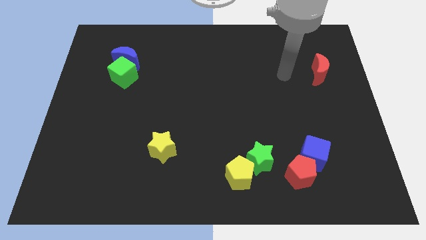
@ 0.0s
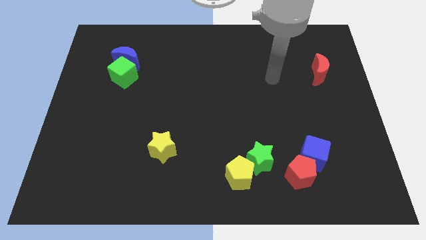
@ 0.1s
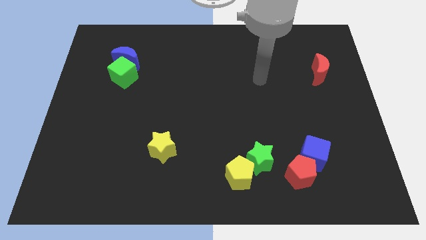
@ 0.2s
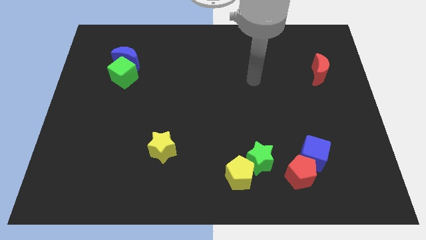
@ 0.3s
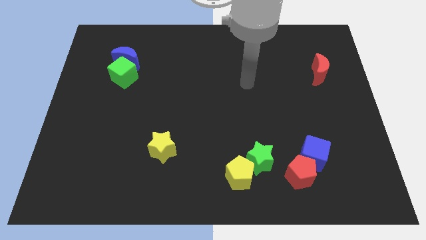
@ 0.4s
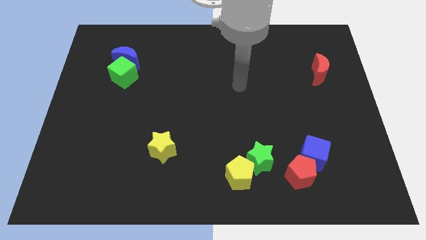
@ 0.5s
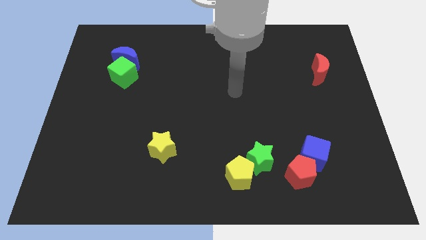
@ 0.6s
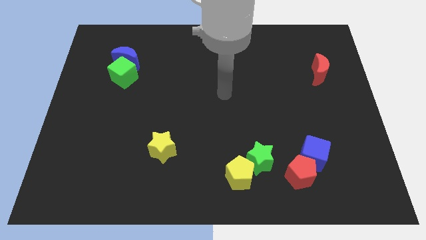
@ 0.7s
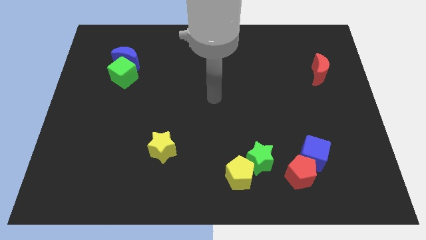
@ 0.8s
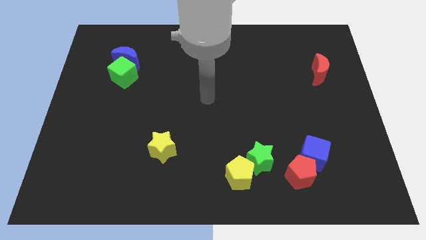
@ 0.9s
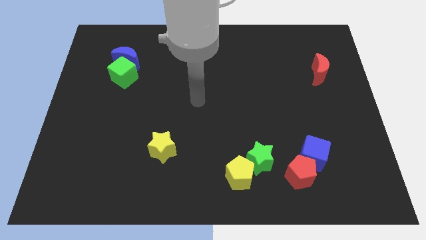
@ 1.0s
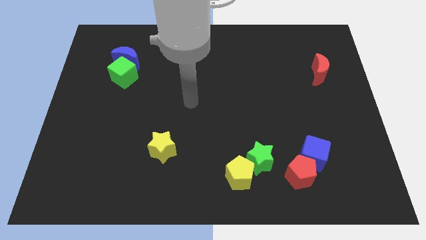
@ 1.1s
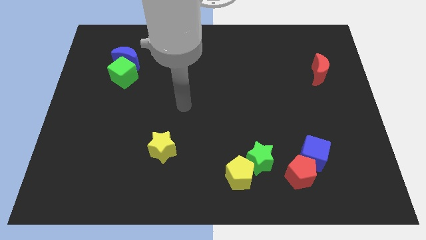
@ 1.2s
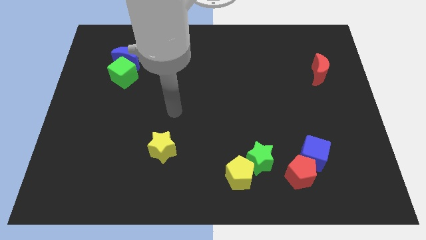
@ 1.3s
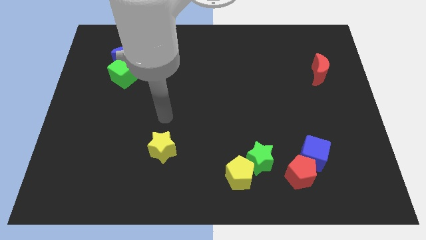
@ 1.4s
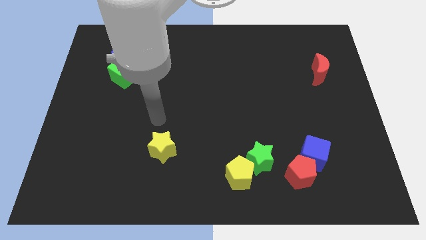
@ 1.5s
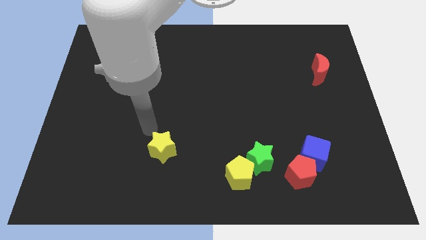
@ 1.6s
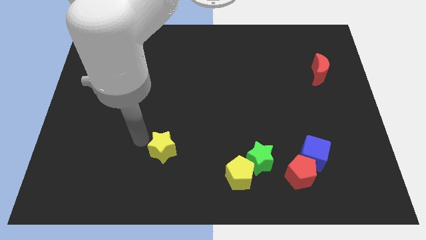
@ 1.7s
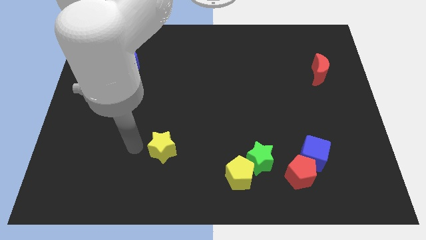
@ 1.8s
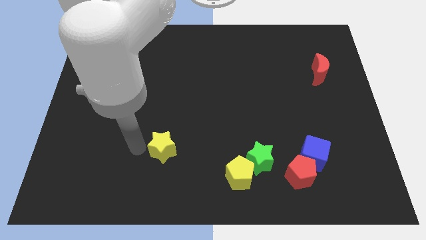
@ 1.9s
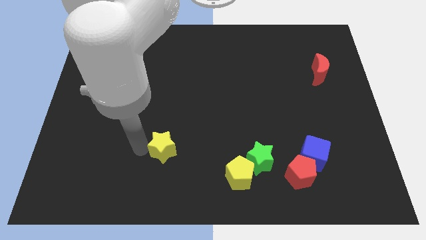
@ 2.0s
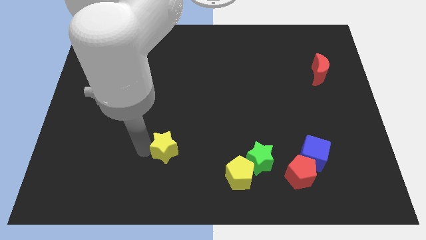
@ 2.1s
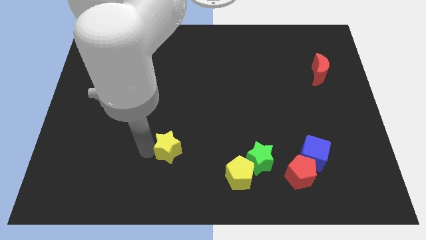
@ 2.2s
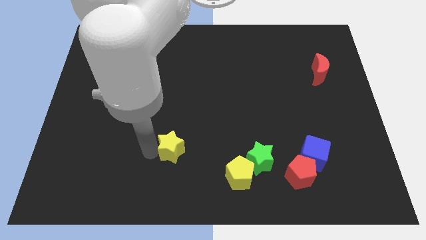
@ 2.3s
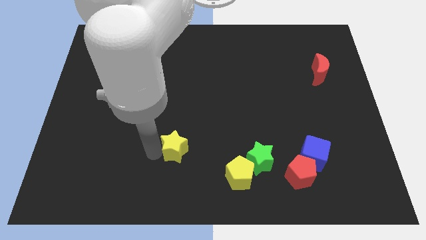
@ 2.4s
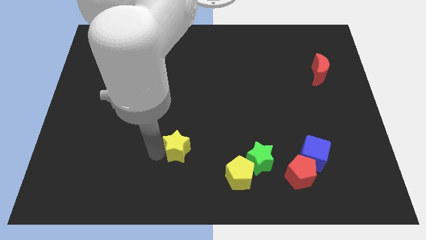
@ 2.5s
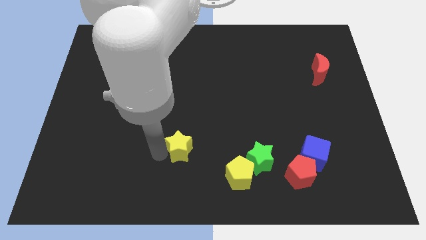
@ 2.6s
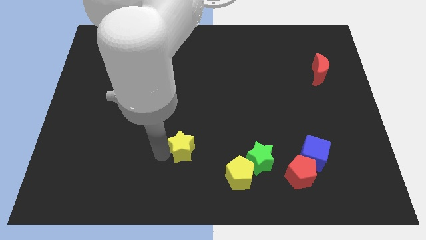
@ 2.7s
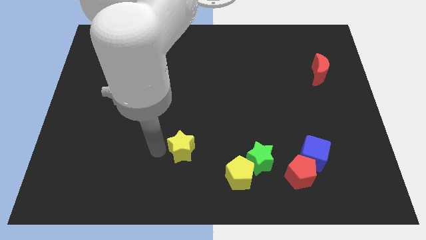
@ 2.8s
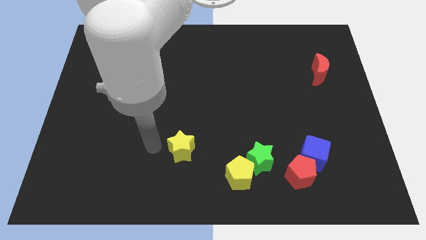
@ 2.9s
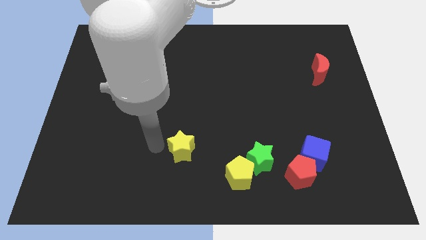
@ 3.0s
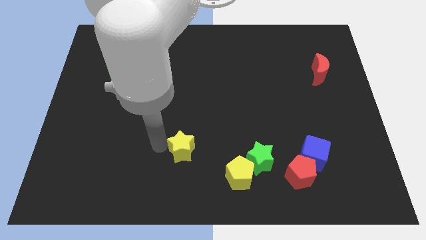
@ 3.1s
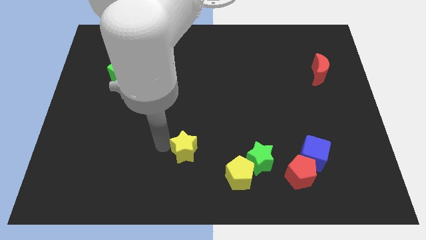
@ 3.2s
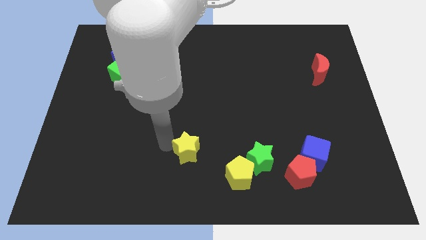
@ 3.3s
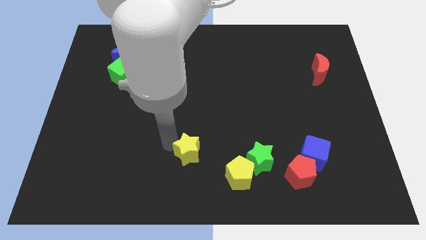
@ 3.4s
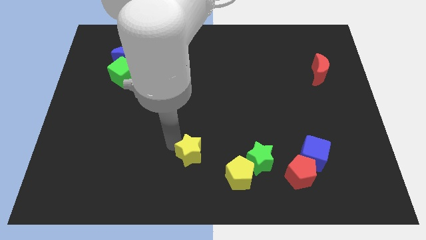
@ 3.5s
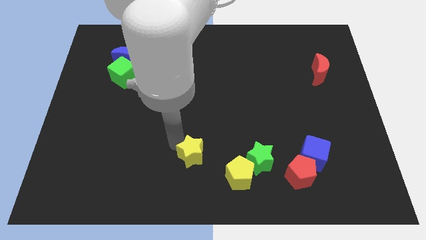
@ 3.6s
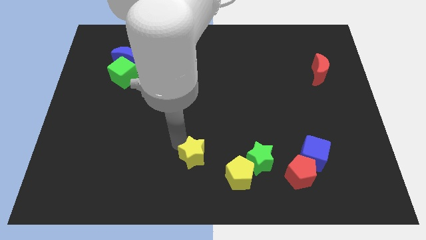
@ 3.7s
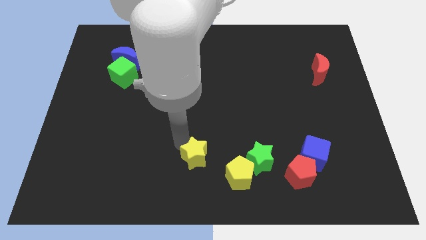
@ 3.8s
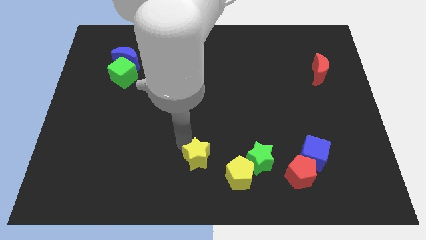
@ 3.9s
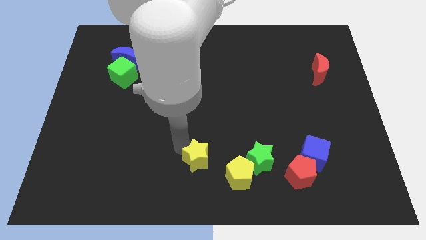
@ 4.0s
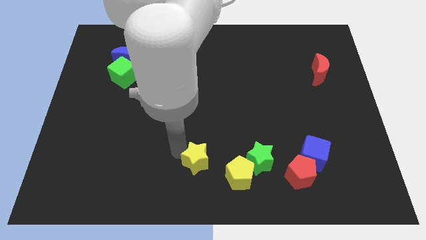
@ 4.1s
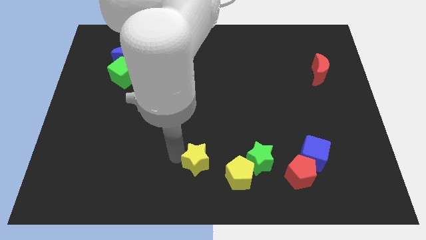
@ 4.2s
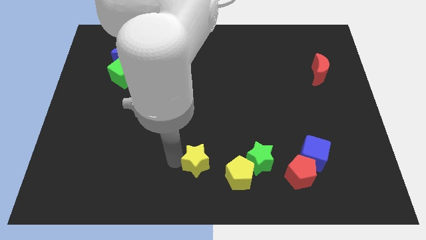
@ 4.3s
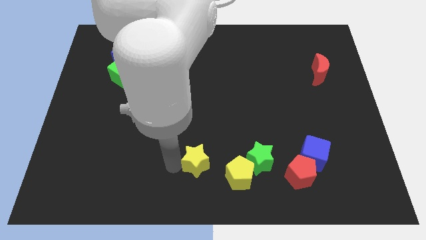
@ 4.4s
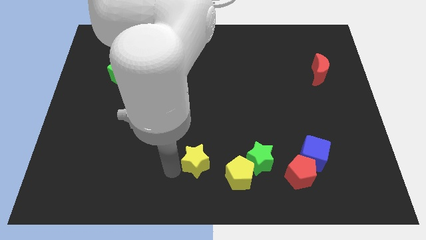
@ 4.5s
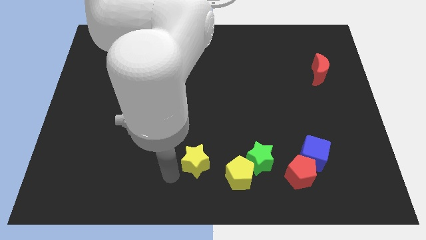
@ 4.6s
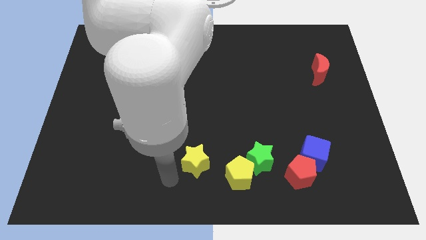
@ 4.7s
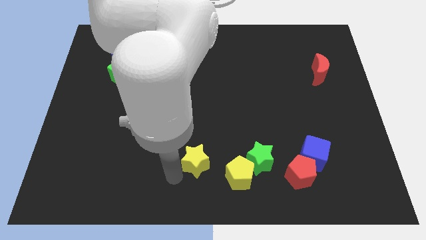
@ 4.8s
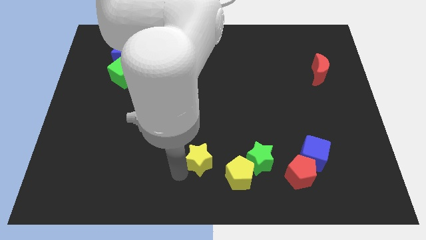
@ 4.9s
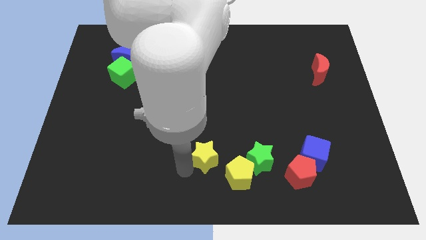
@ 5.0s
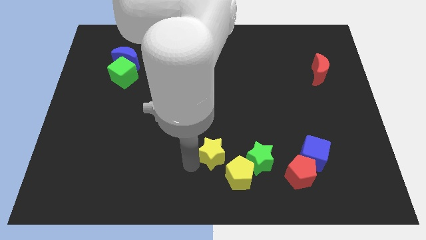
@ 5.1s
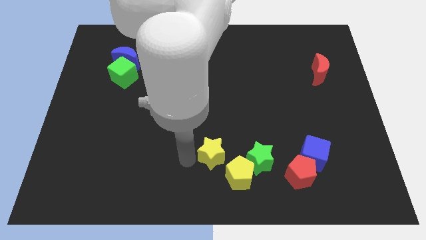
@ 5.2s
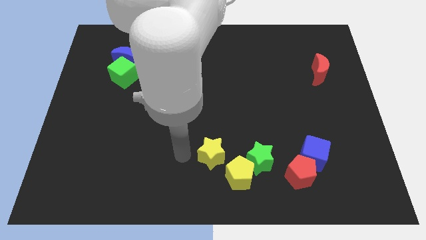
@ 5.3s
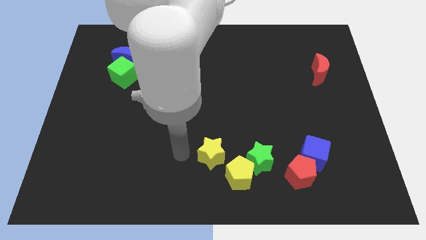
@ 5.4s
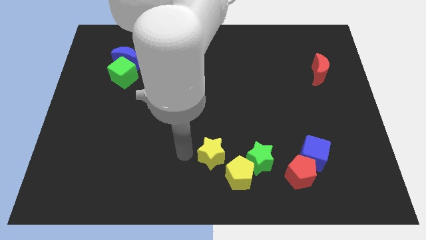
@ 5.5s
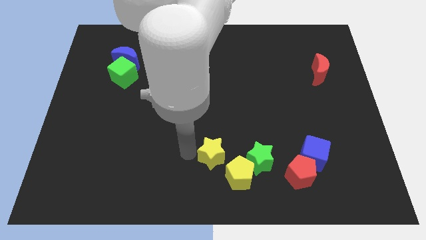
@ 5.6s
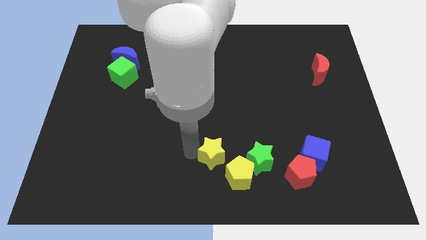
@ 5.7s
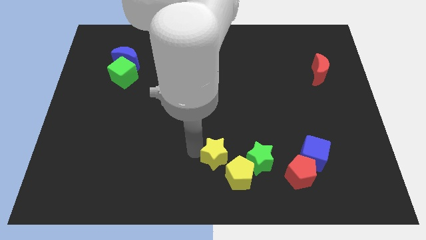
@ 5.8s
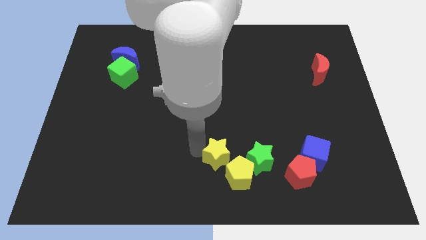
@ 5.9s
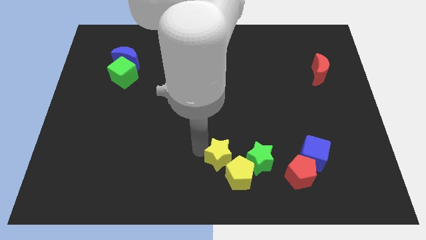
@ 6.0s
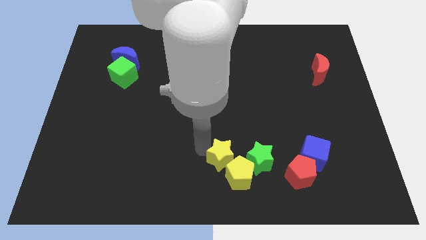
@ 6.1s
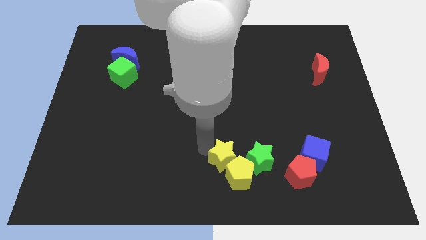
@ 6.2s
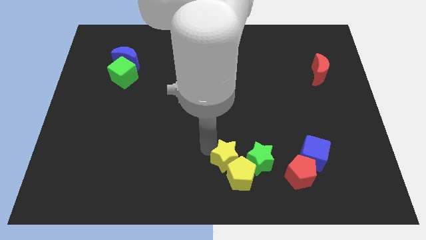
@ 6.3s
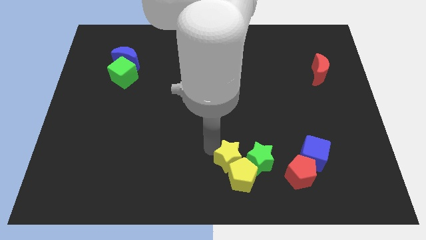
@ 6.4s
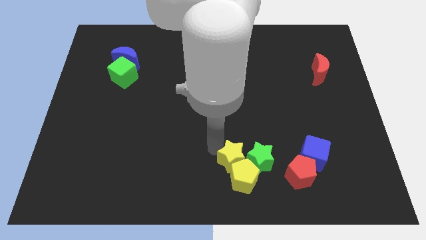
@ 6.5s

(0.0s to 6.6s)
put the yellow star towards the green star
